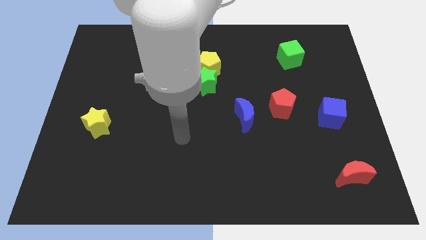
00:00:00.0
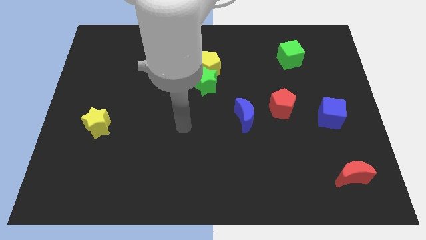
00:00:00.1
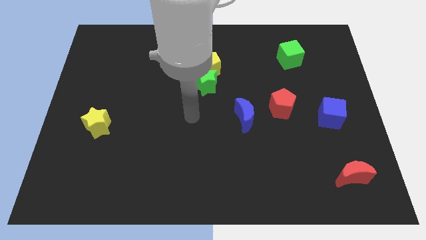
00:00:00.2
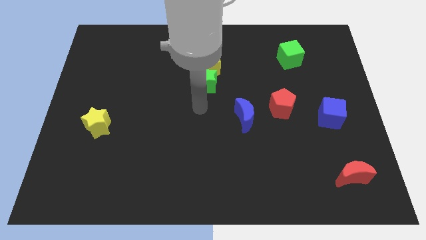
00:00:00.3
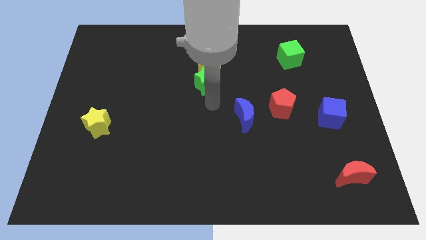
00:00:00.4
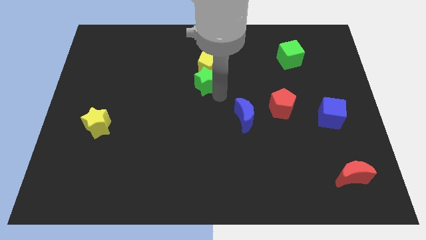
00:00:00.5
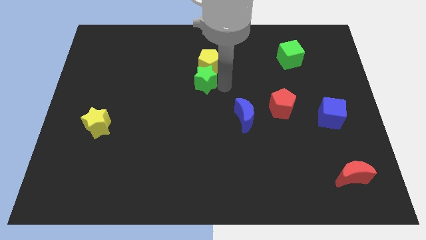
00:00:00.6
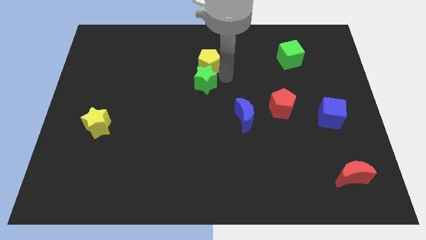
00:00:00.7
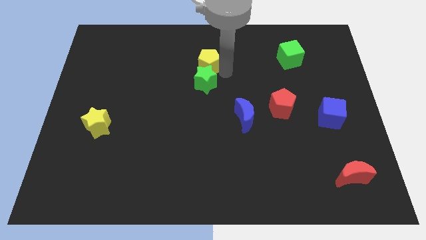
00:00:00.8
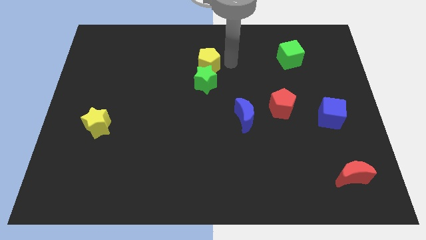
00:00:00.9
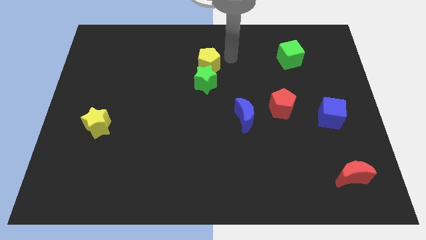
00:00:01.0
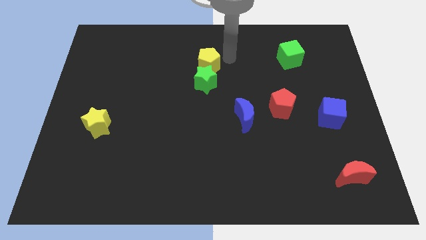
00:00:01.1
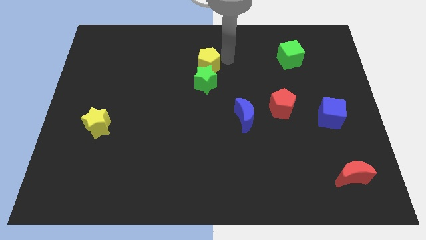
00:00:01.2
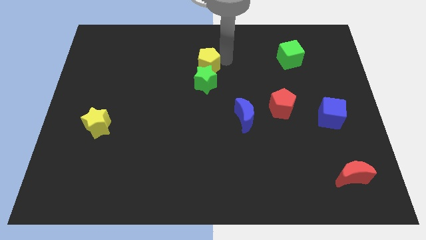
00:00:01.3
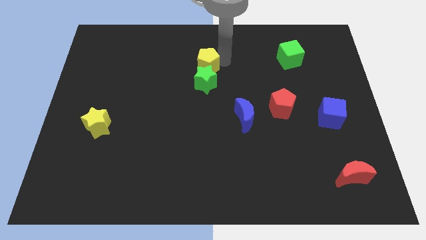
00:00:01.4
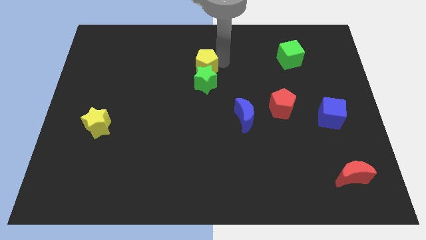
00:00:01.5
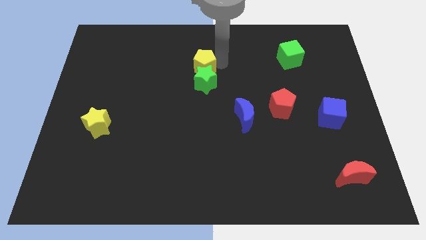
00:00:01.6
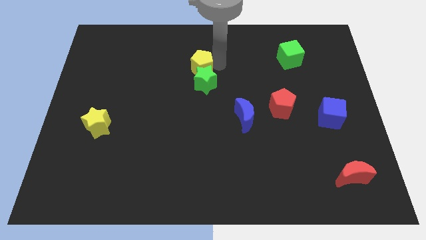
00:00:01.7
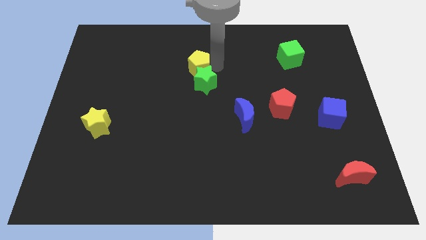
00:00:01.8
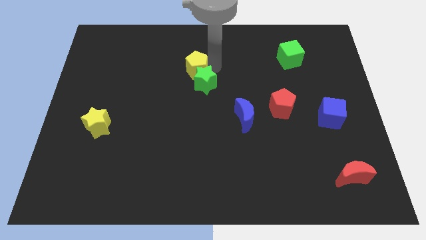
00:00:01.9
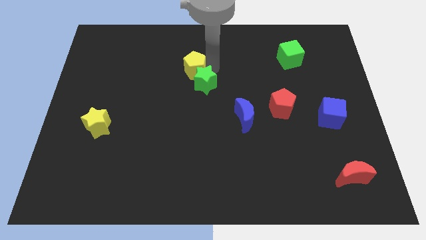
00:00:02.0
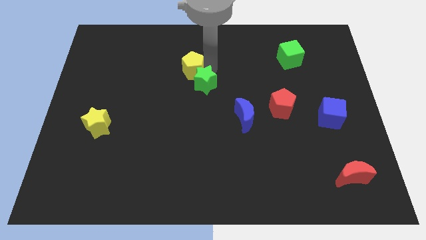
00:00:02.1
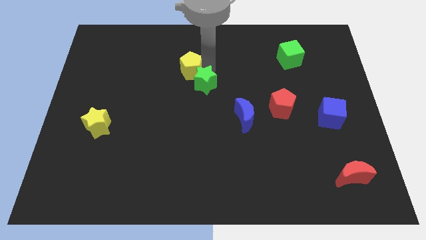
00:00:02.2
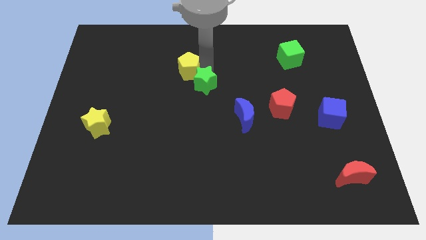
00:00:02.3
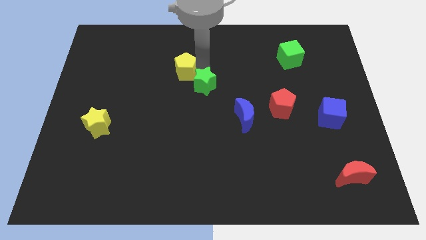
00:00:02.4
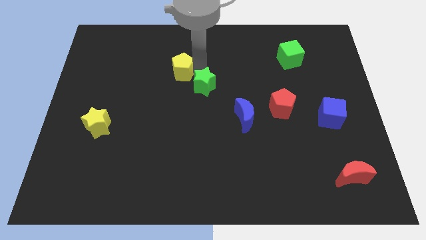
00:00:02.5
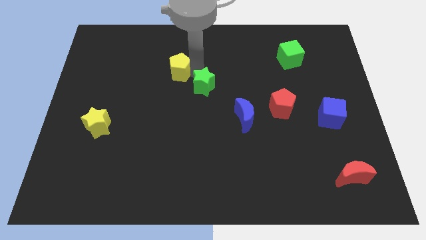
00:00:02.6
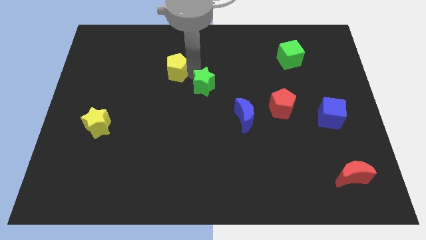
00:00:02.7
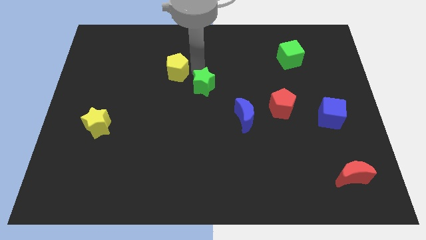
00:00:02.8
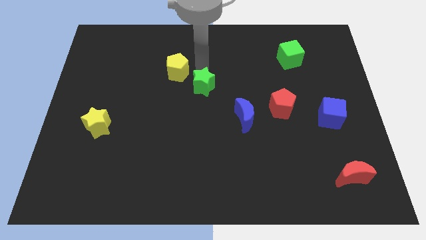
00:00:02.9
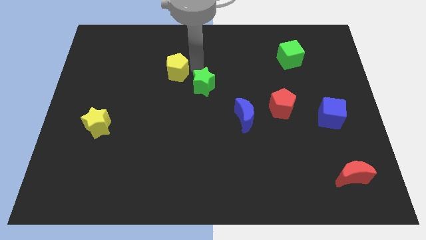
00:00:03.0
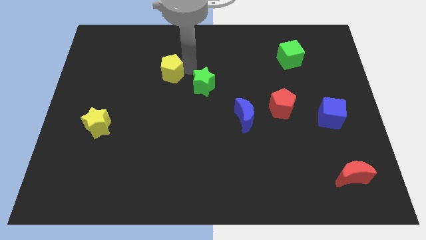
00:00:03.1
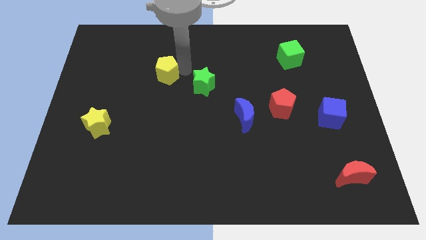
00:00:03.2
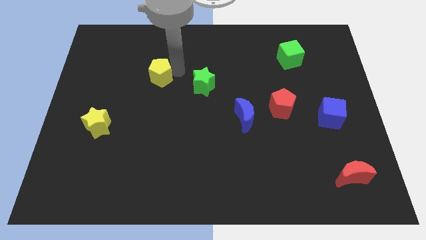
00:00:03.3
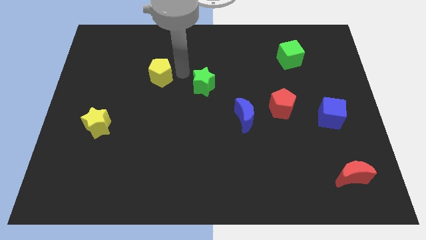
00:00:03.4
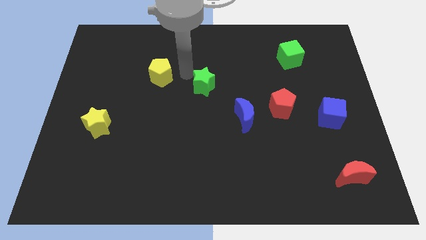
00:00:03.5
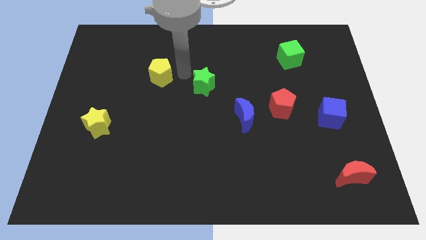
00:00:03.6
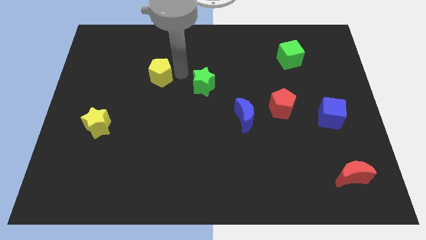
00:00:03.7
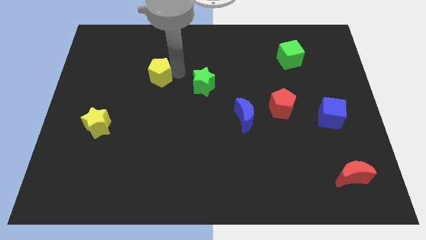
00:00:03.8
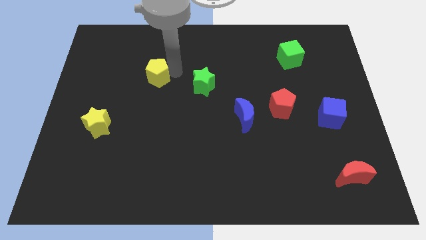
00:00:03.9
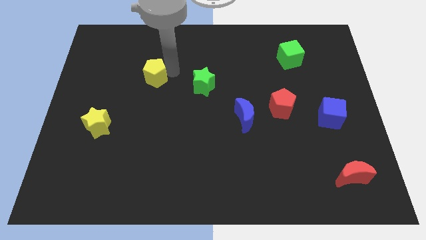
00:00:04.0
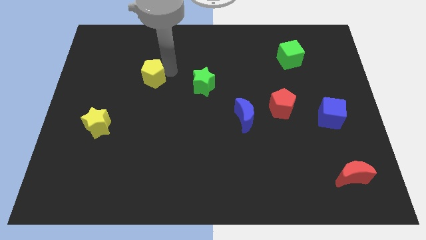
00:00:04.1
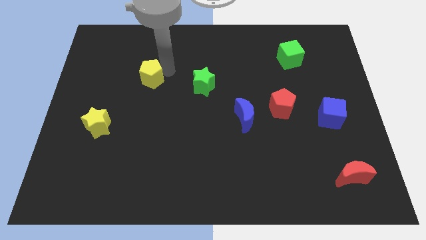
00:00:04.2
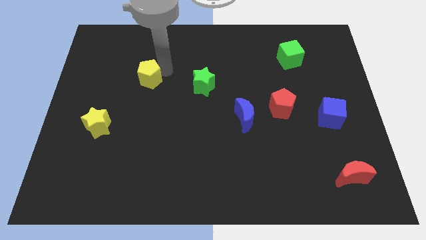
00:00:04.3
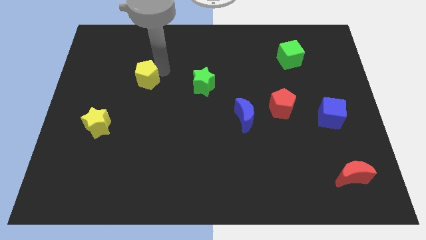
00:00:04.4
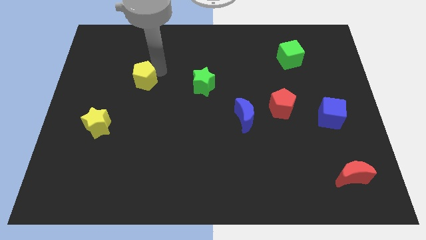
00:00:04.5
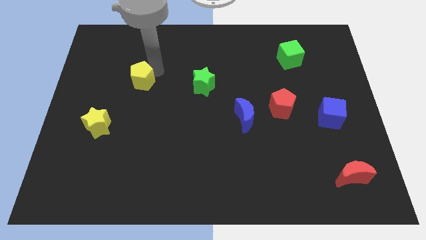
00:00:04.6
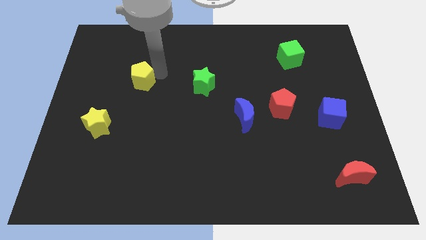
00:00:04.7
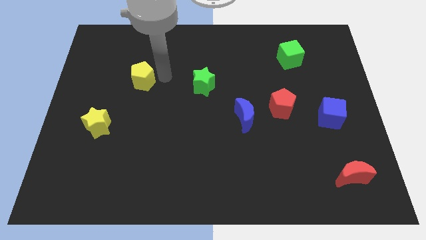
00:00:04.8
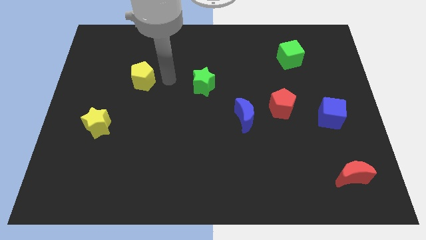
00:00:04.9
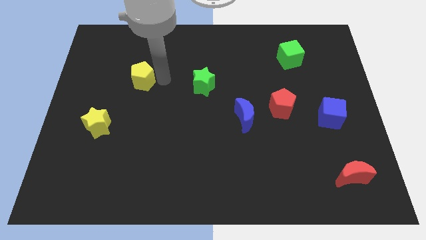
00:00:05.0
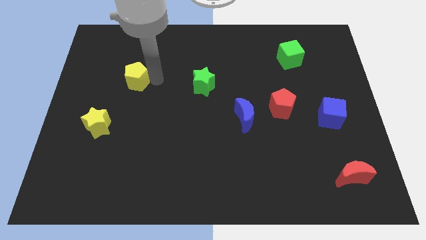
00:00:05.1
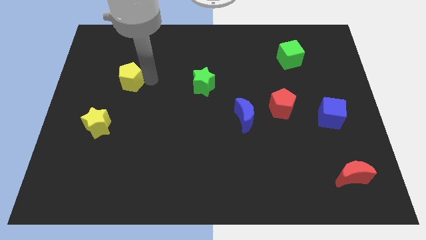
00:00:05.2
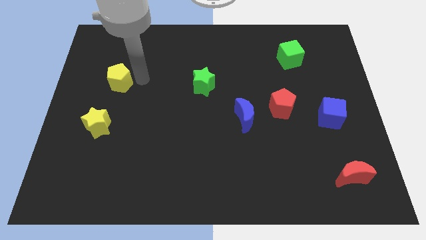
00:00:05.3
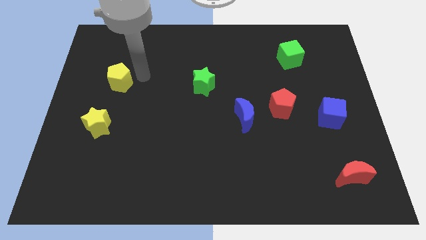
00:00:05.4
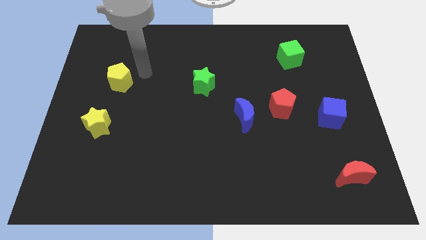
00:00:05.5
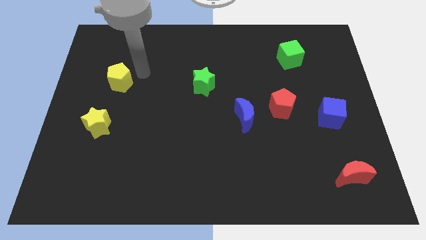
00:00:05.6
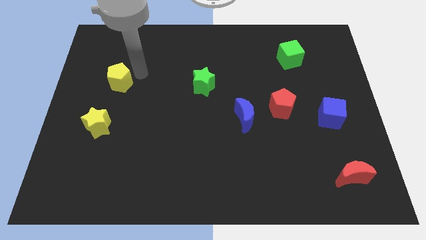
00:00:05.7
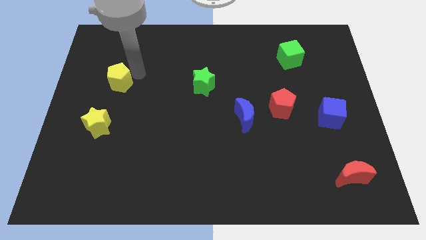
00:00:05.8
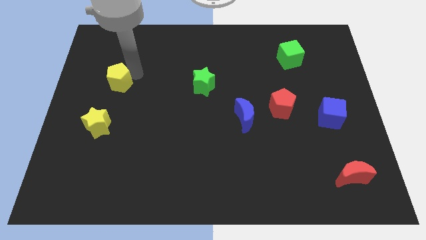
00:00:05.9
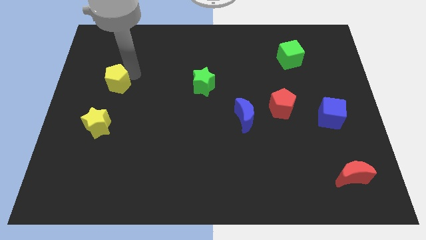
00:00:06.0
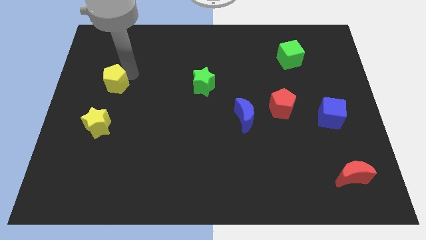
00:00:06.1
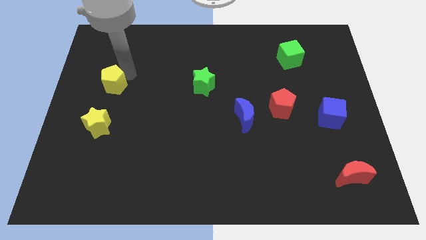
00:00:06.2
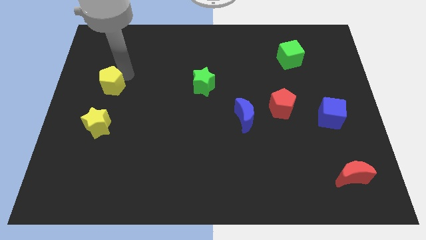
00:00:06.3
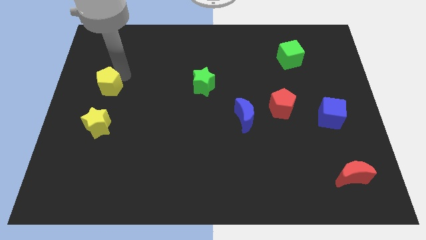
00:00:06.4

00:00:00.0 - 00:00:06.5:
move the yellow pentagon to the left side
